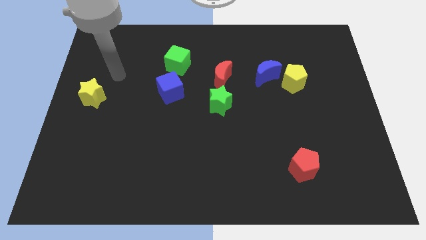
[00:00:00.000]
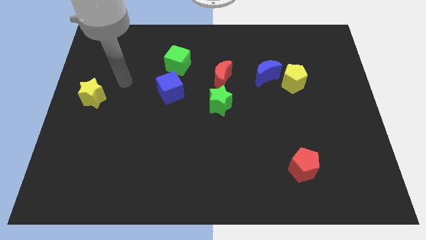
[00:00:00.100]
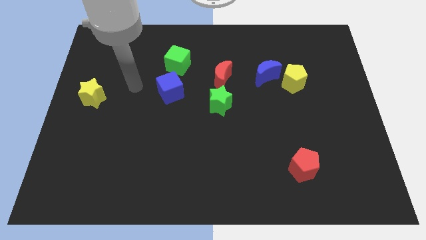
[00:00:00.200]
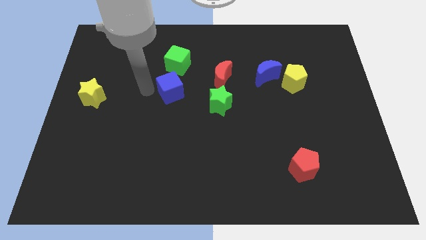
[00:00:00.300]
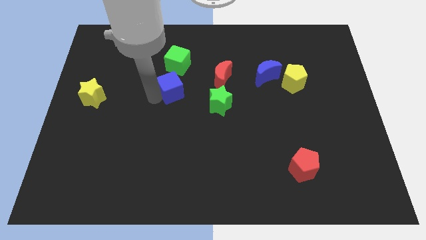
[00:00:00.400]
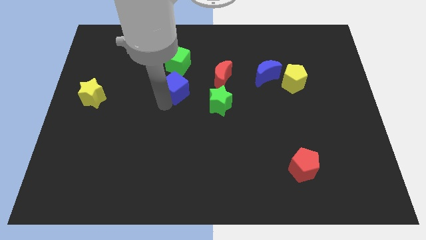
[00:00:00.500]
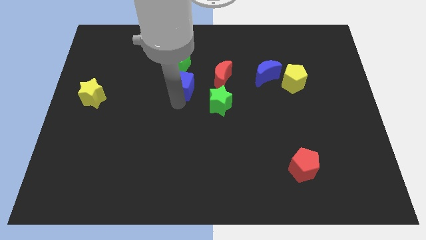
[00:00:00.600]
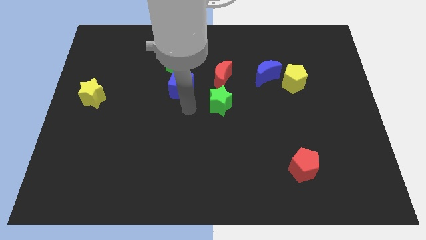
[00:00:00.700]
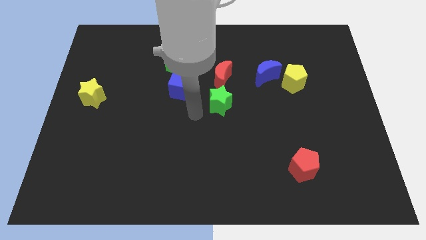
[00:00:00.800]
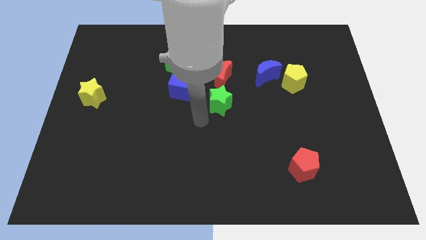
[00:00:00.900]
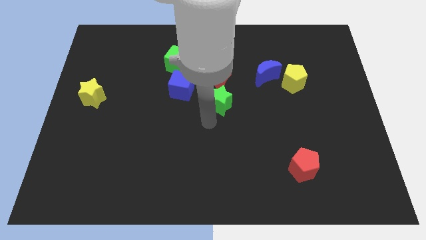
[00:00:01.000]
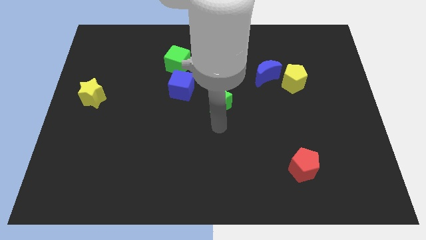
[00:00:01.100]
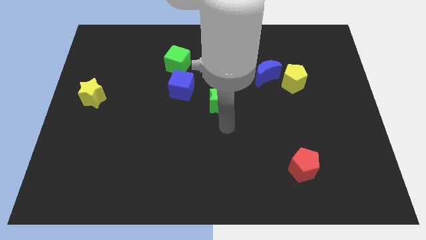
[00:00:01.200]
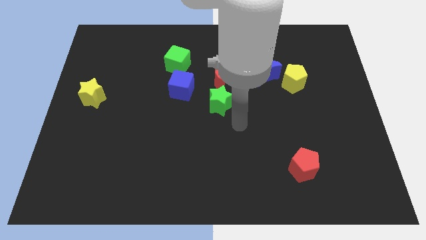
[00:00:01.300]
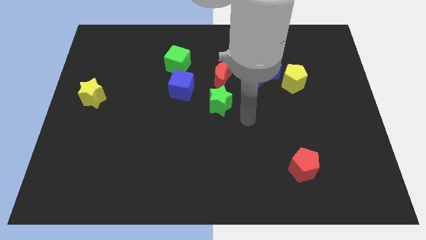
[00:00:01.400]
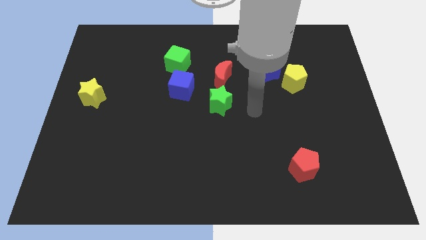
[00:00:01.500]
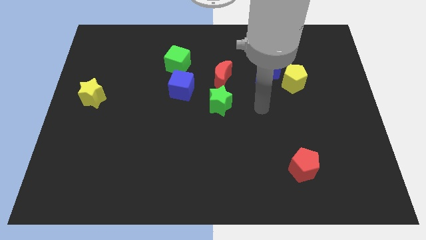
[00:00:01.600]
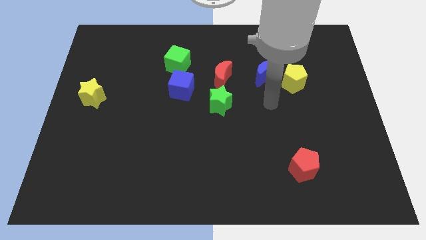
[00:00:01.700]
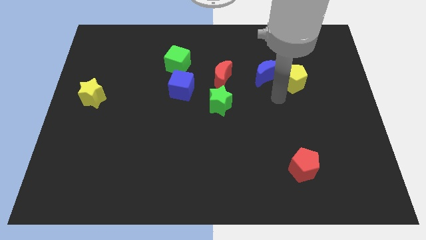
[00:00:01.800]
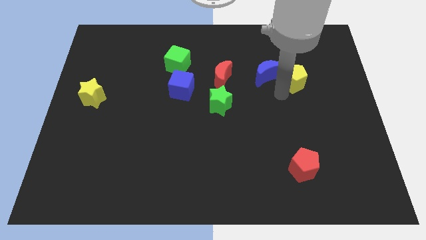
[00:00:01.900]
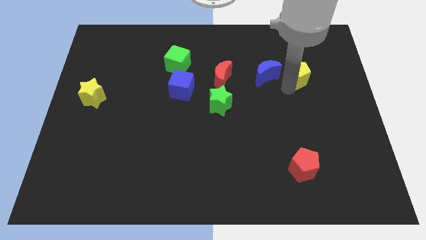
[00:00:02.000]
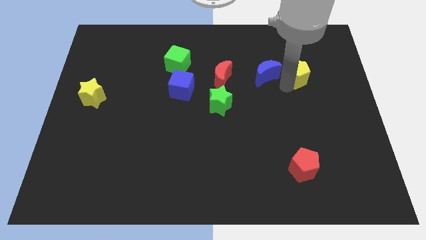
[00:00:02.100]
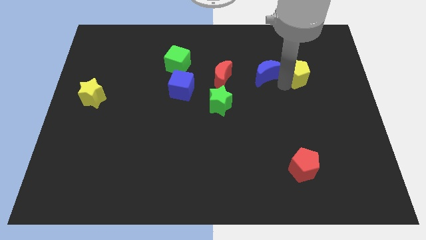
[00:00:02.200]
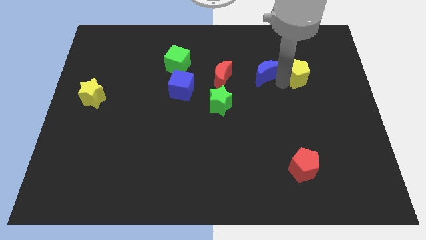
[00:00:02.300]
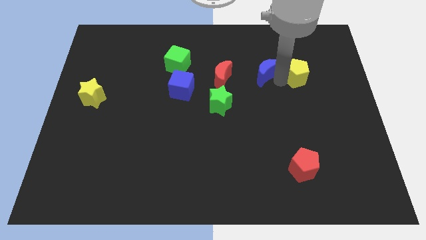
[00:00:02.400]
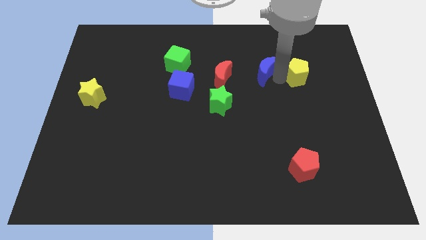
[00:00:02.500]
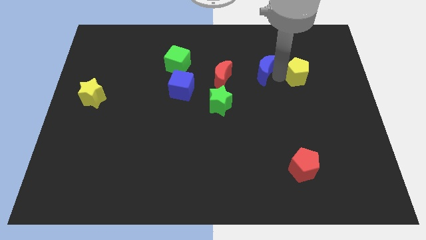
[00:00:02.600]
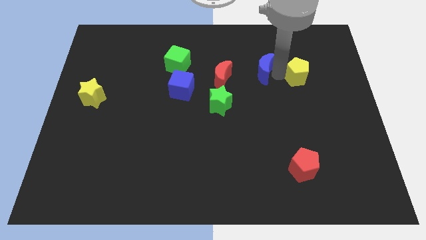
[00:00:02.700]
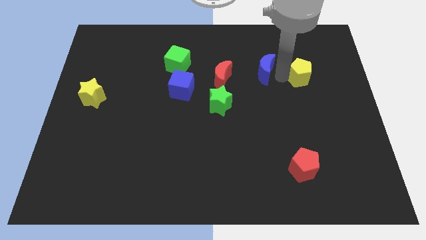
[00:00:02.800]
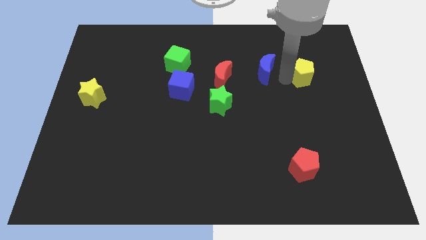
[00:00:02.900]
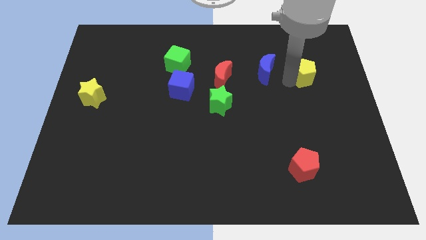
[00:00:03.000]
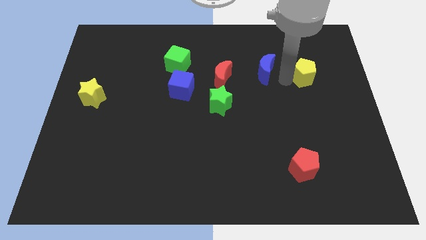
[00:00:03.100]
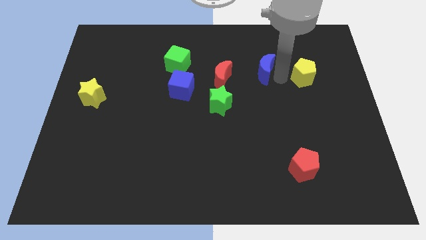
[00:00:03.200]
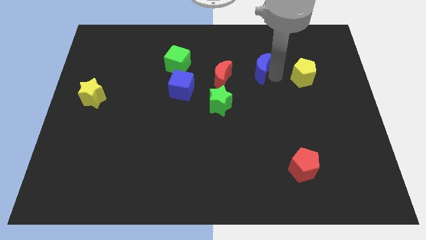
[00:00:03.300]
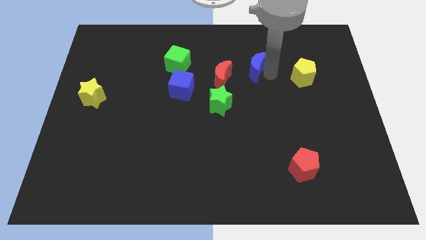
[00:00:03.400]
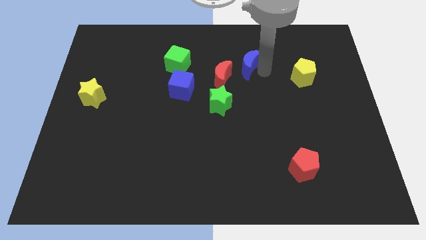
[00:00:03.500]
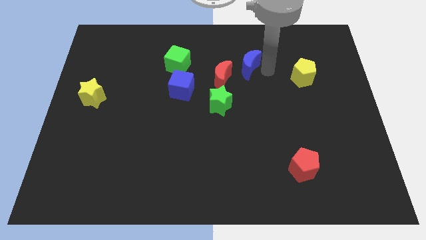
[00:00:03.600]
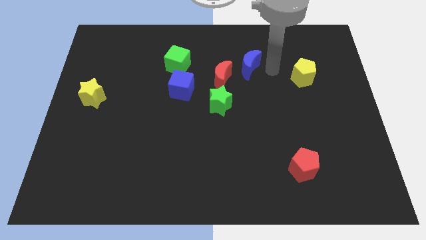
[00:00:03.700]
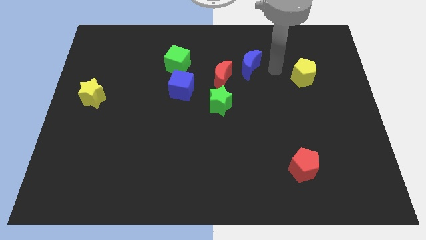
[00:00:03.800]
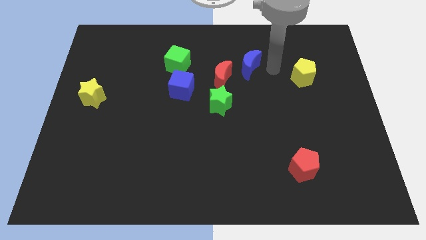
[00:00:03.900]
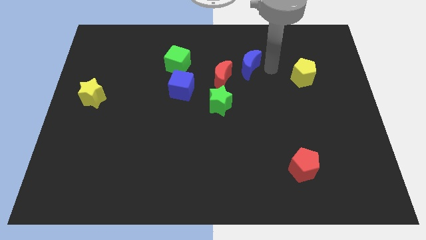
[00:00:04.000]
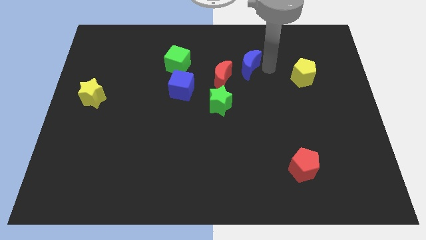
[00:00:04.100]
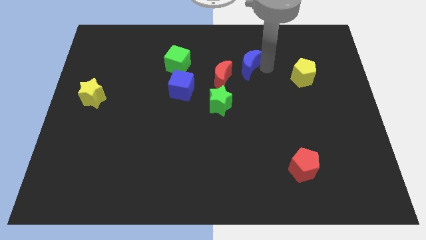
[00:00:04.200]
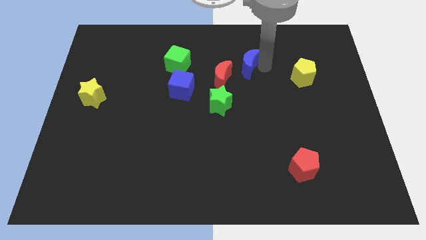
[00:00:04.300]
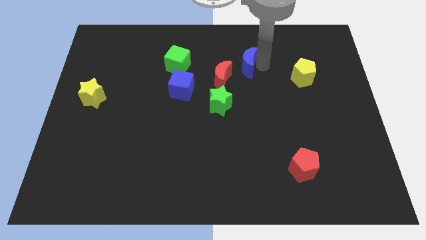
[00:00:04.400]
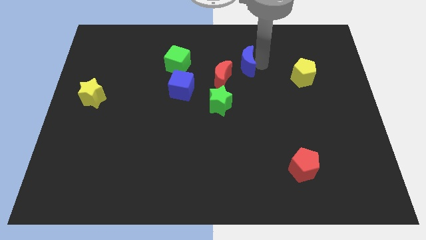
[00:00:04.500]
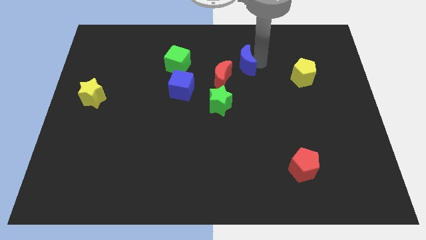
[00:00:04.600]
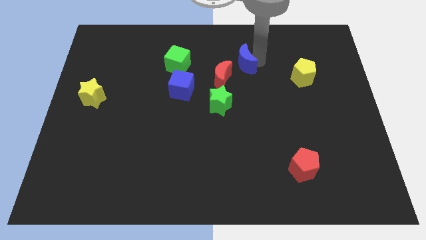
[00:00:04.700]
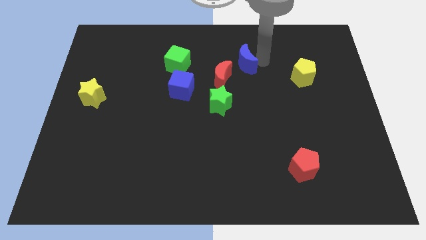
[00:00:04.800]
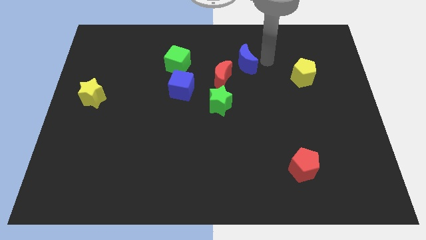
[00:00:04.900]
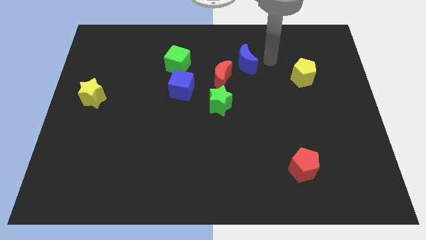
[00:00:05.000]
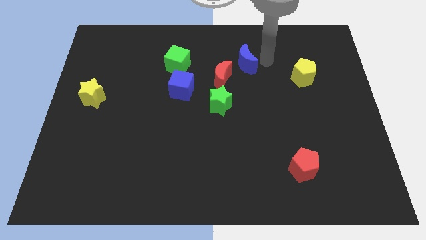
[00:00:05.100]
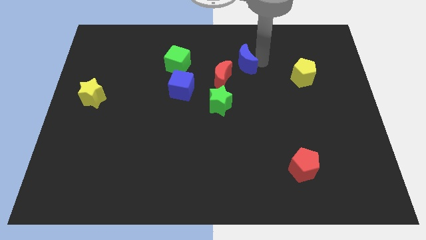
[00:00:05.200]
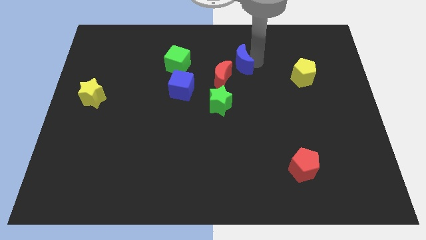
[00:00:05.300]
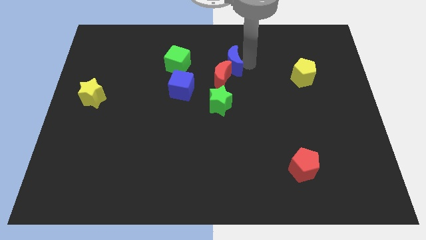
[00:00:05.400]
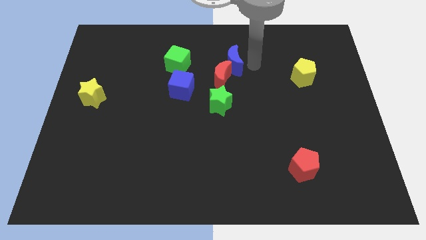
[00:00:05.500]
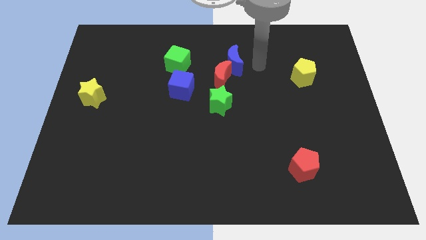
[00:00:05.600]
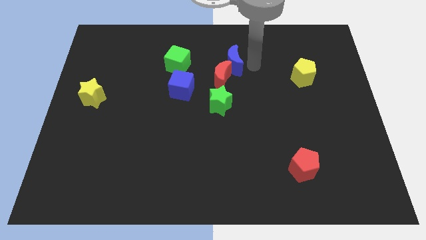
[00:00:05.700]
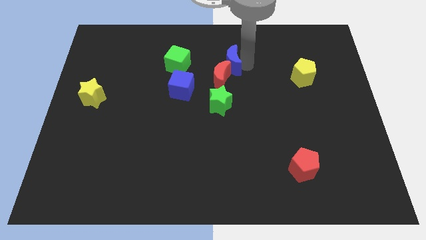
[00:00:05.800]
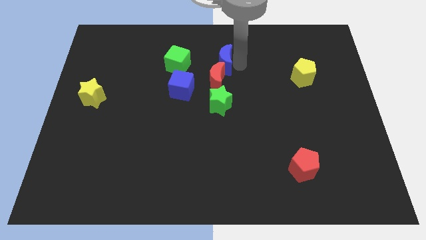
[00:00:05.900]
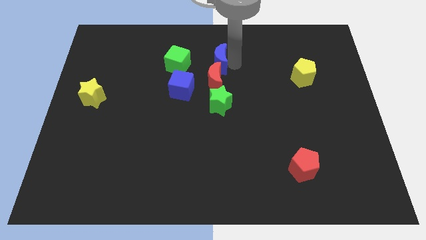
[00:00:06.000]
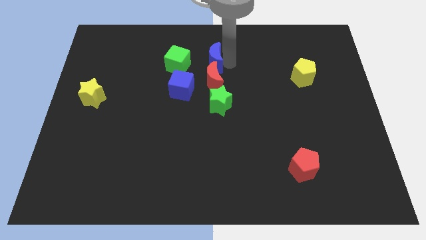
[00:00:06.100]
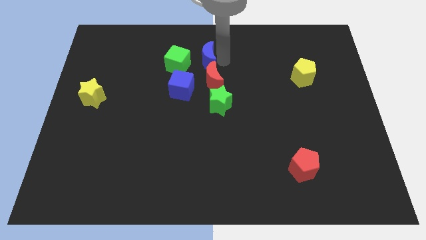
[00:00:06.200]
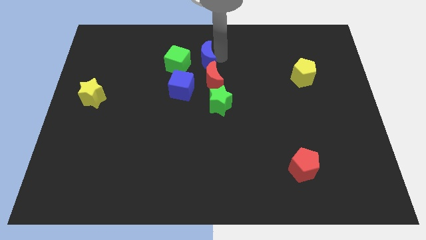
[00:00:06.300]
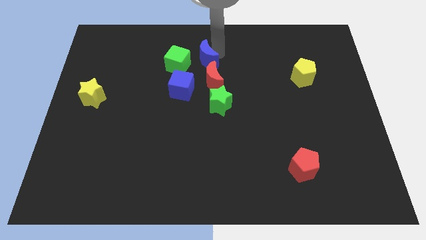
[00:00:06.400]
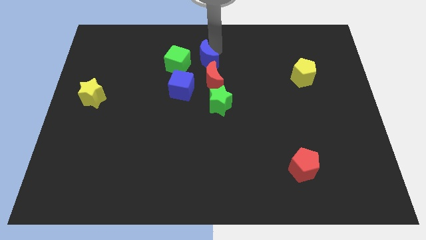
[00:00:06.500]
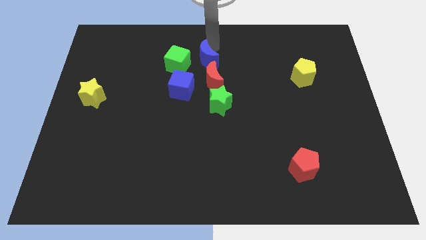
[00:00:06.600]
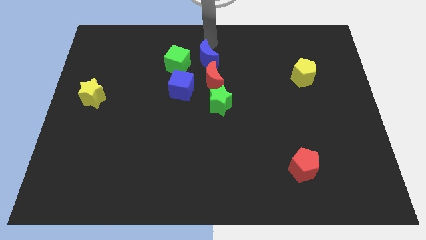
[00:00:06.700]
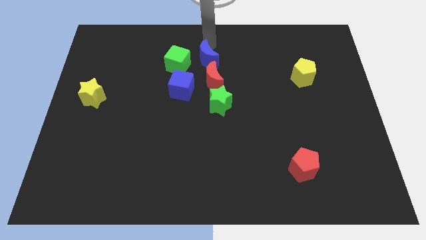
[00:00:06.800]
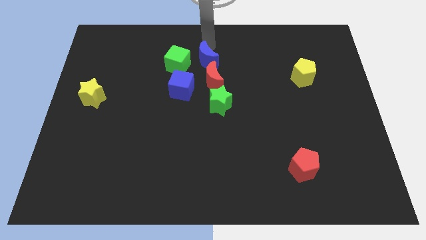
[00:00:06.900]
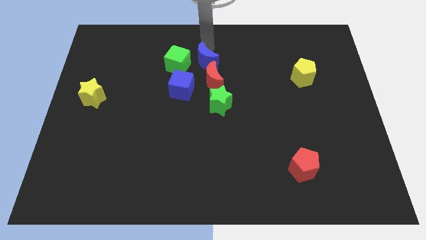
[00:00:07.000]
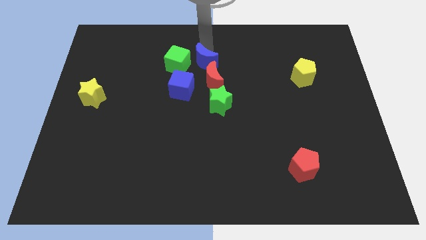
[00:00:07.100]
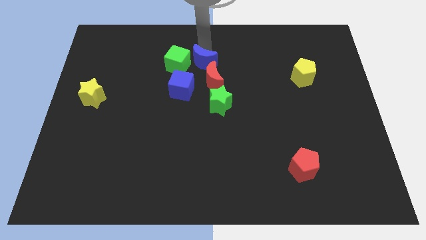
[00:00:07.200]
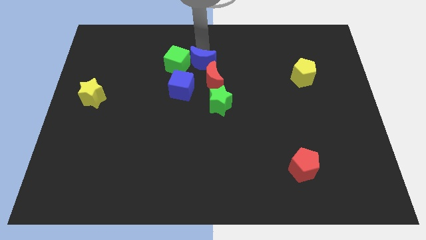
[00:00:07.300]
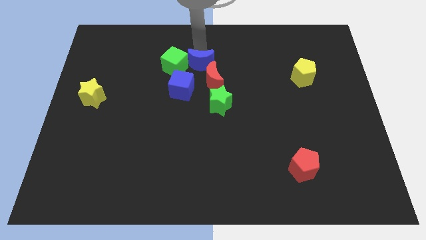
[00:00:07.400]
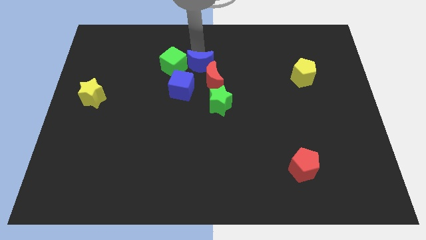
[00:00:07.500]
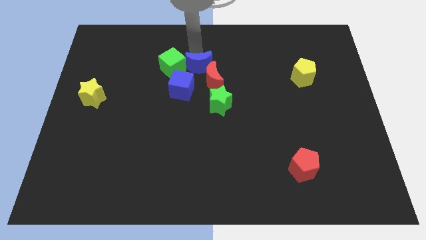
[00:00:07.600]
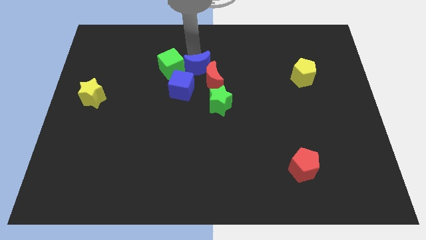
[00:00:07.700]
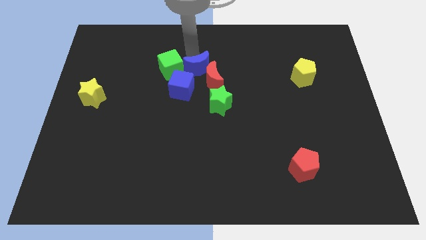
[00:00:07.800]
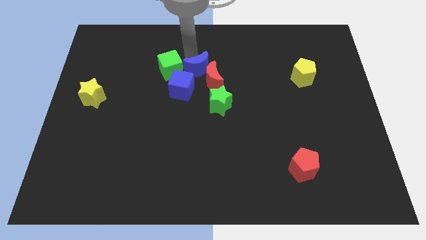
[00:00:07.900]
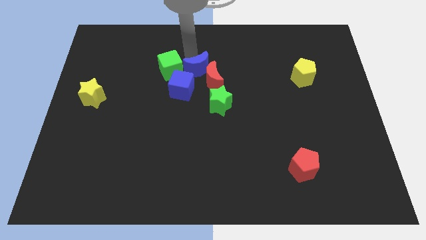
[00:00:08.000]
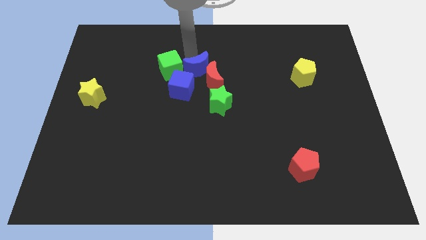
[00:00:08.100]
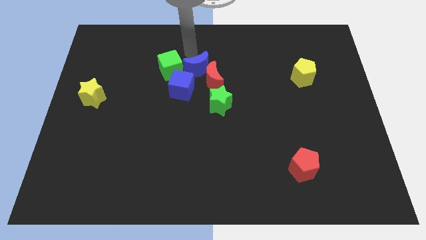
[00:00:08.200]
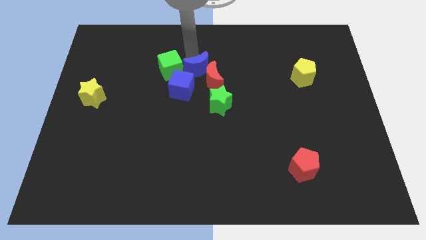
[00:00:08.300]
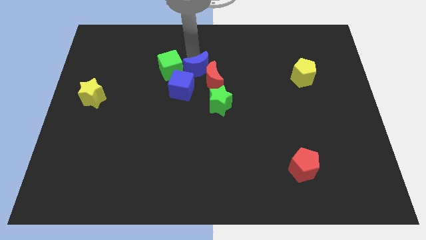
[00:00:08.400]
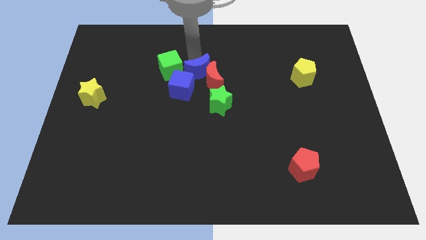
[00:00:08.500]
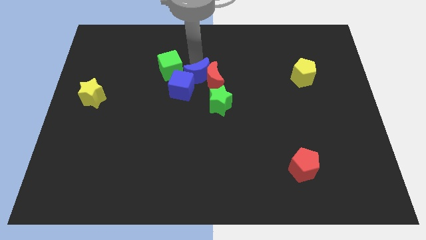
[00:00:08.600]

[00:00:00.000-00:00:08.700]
put the blue moon to the bottom left of the red moon
